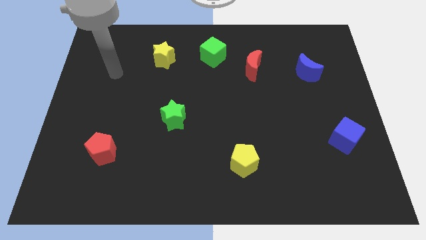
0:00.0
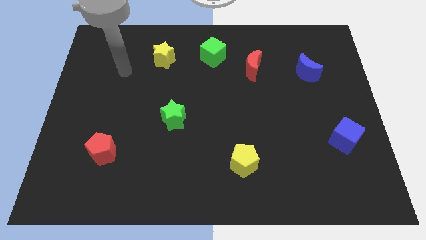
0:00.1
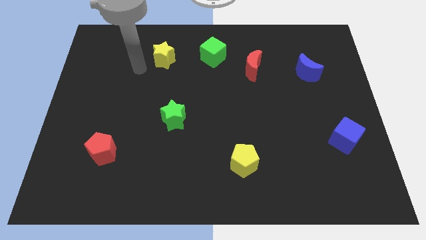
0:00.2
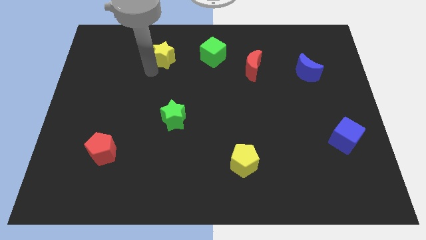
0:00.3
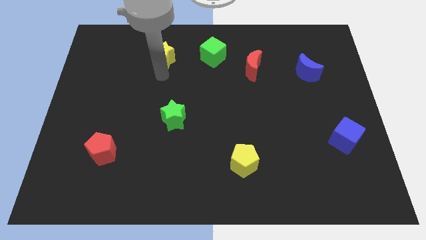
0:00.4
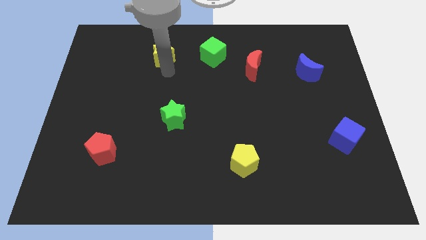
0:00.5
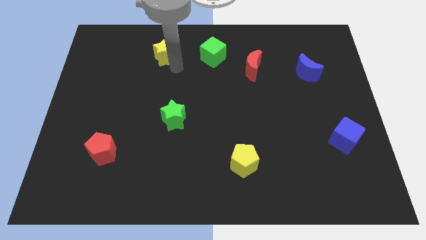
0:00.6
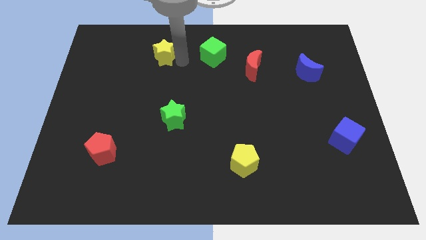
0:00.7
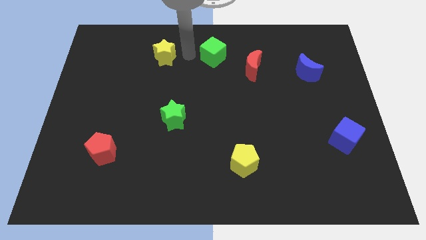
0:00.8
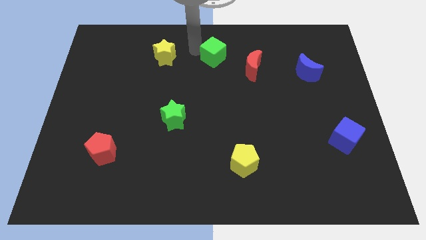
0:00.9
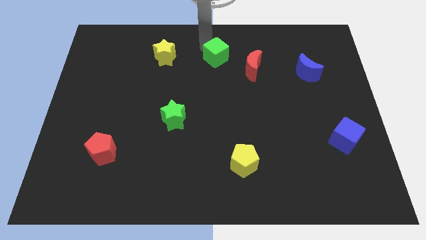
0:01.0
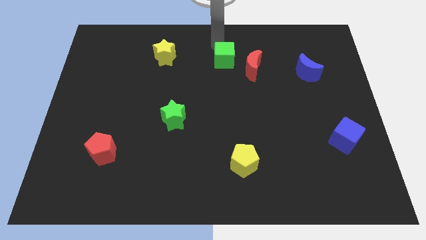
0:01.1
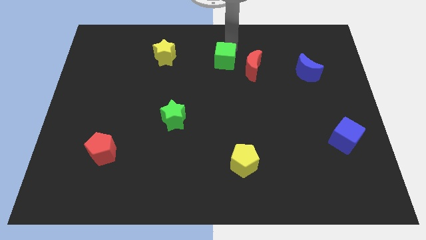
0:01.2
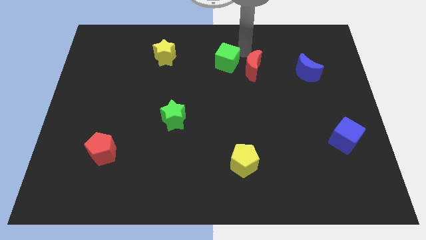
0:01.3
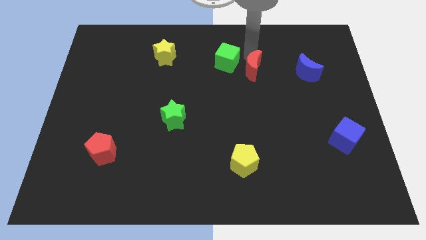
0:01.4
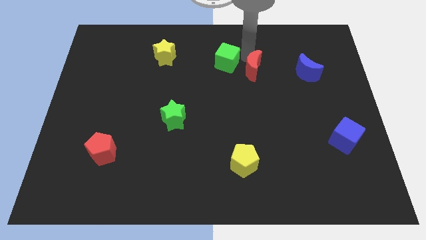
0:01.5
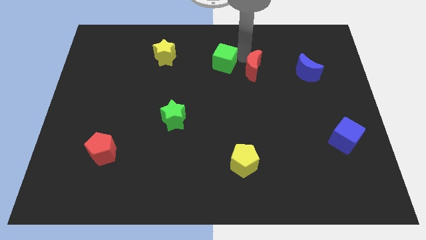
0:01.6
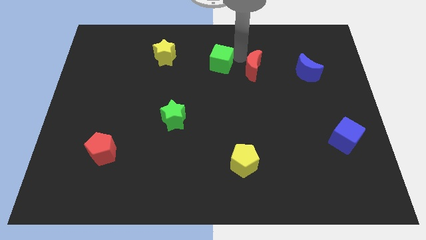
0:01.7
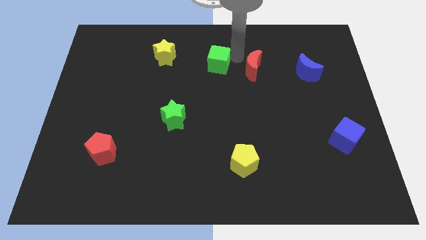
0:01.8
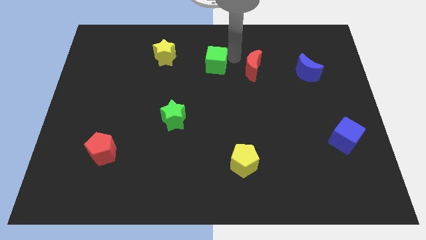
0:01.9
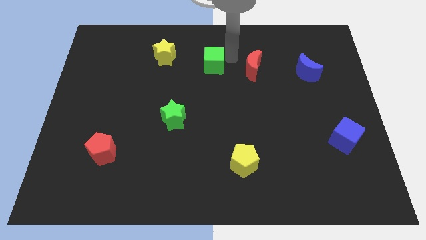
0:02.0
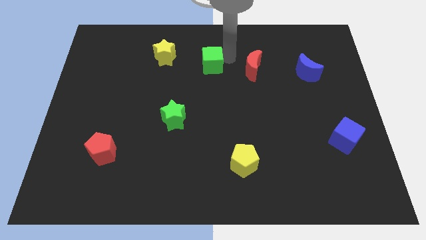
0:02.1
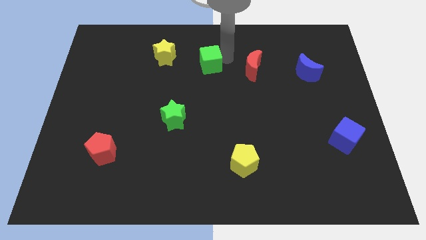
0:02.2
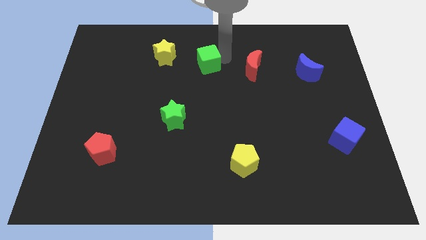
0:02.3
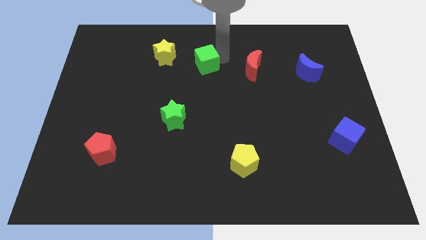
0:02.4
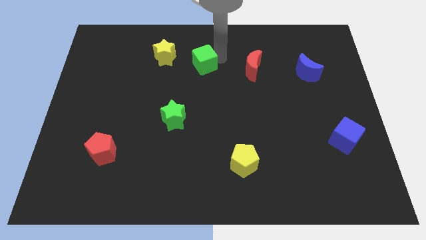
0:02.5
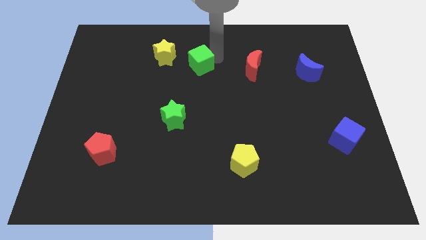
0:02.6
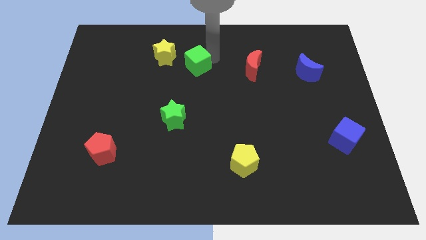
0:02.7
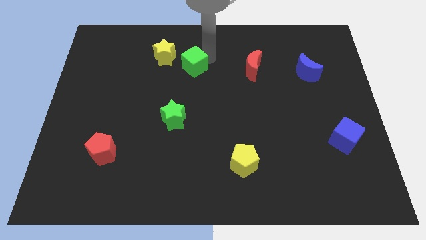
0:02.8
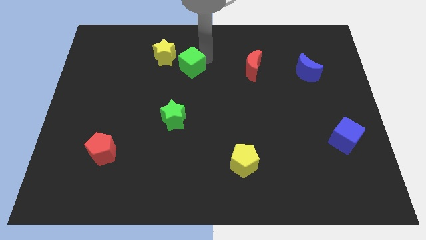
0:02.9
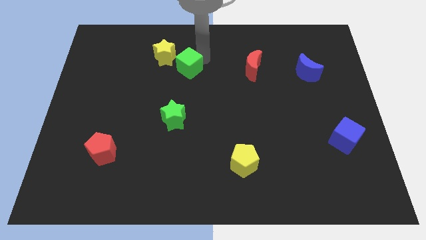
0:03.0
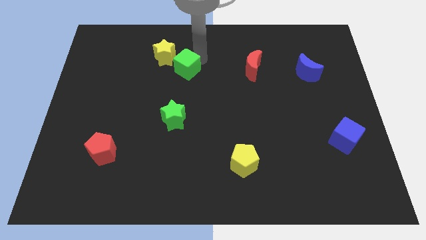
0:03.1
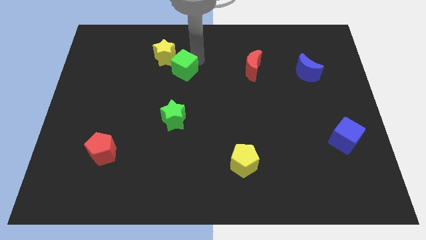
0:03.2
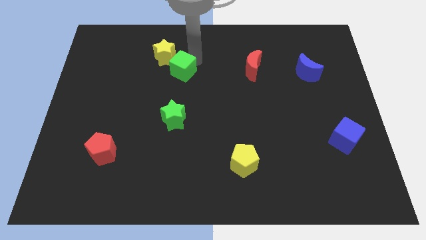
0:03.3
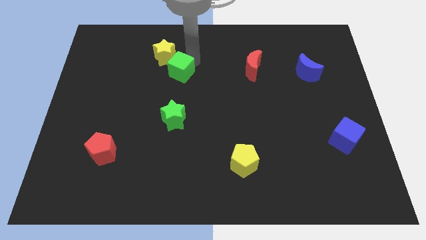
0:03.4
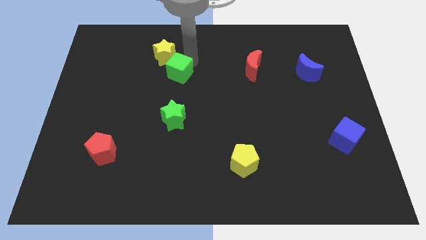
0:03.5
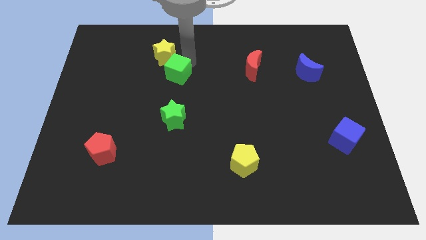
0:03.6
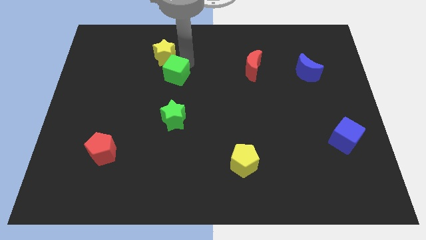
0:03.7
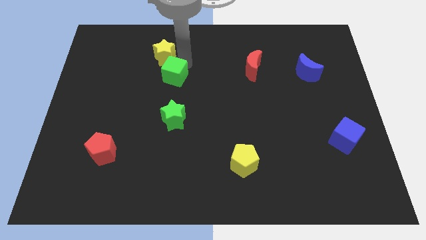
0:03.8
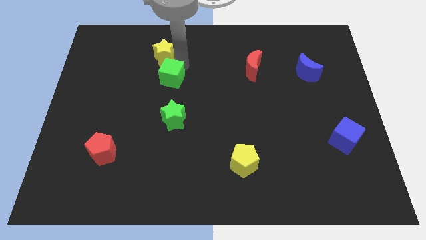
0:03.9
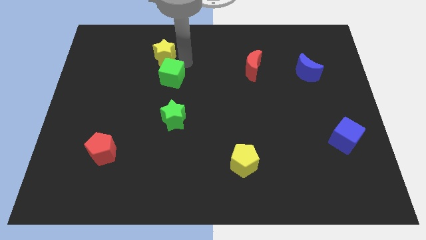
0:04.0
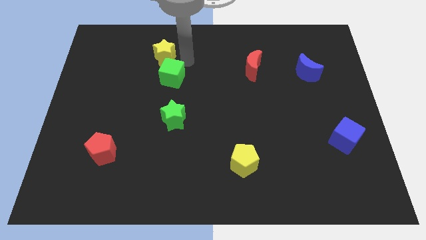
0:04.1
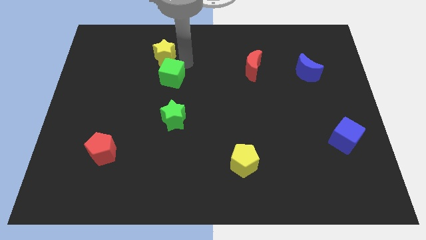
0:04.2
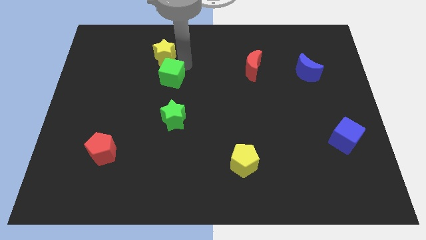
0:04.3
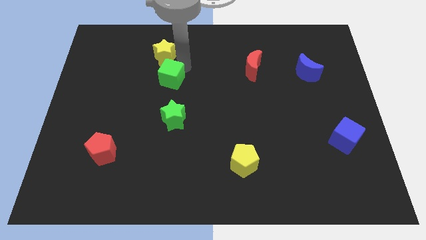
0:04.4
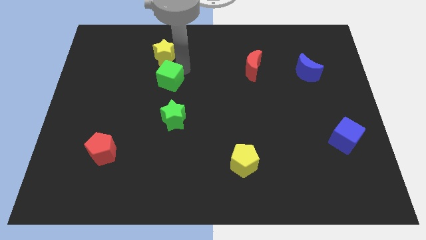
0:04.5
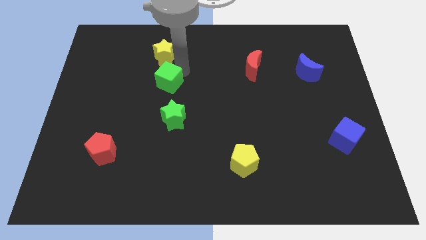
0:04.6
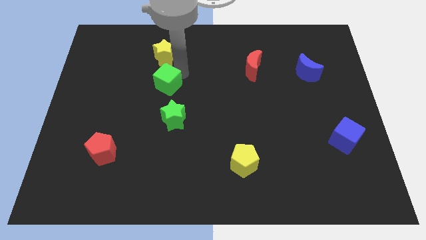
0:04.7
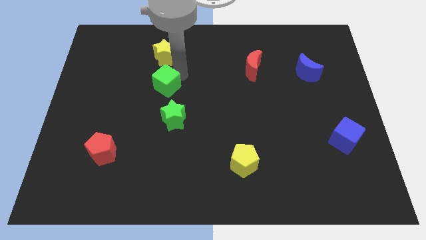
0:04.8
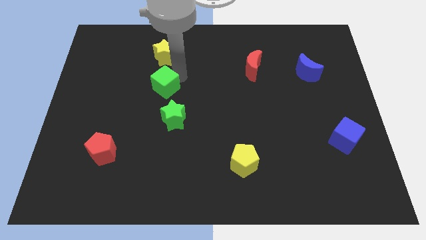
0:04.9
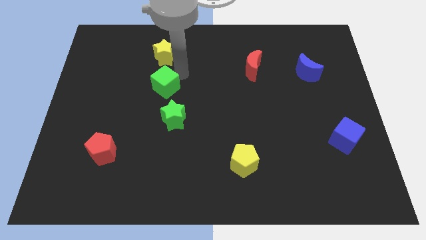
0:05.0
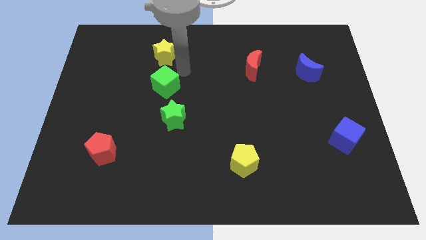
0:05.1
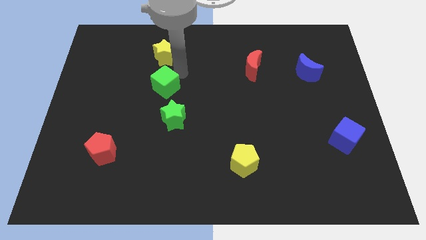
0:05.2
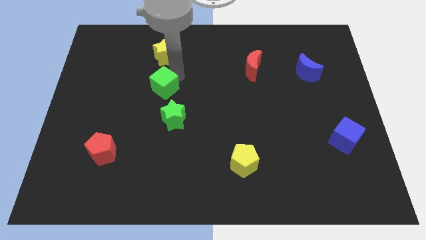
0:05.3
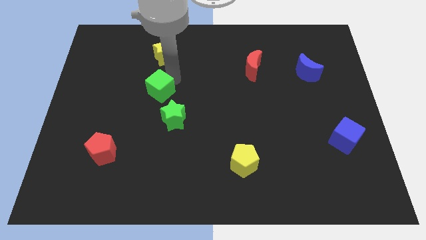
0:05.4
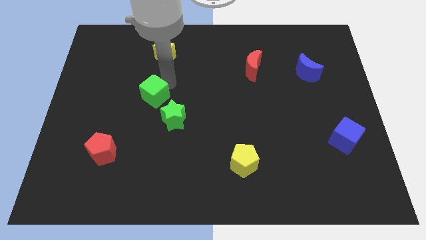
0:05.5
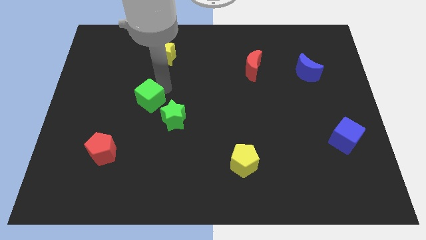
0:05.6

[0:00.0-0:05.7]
slide the green cube down and then to the left

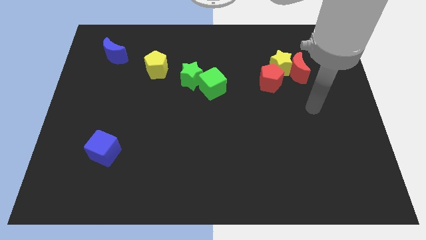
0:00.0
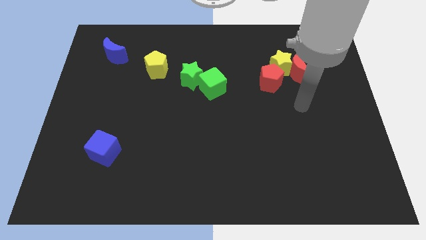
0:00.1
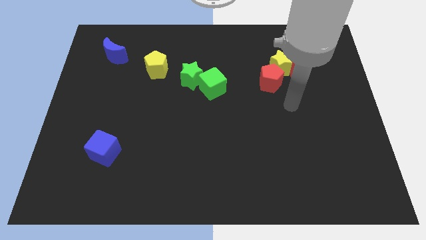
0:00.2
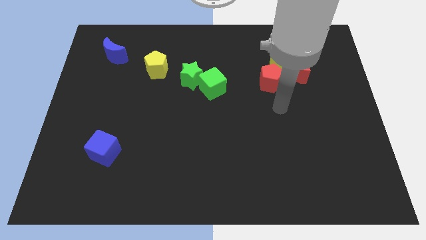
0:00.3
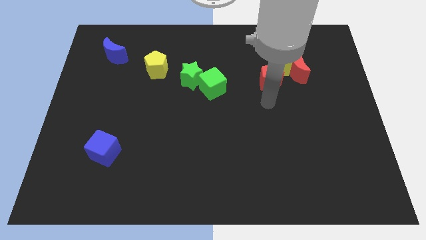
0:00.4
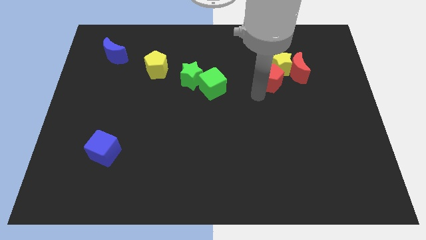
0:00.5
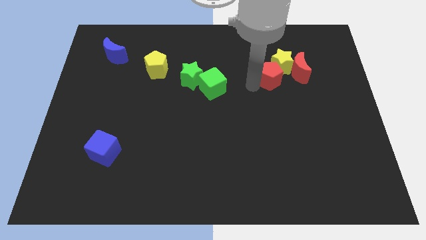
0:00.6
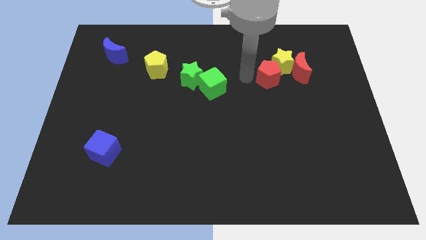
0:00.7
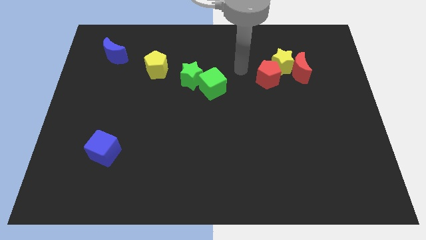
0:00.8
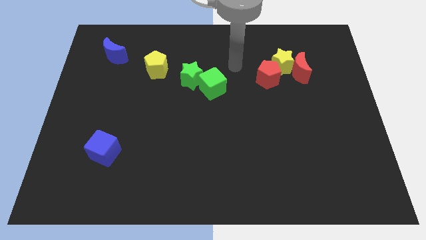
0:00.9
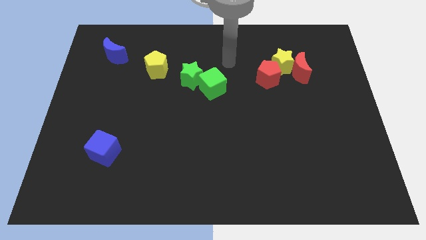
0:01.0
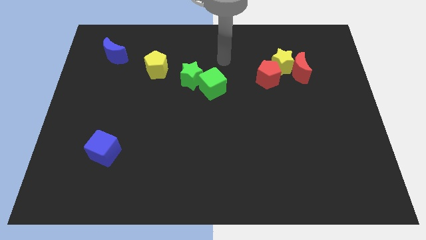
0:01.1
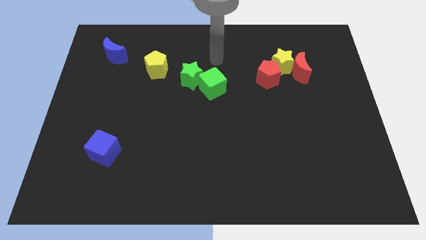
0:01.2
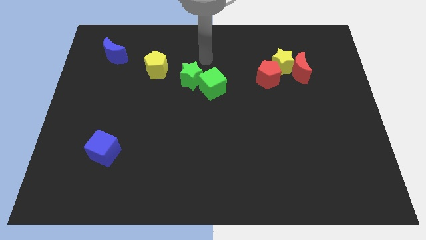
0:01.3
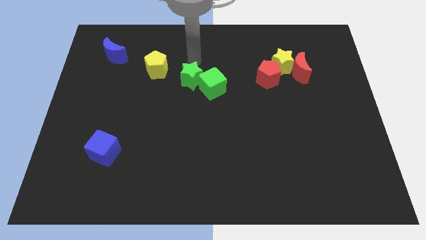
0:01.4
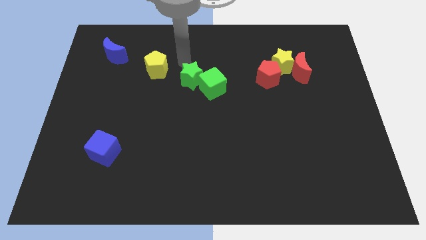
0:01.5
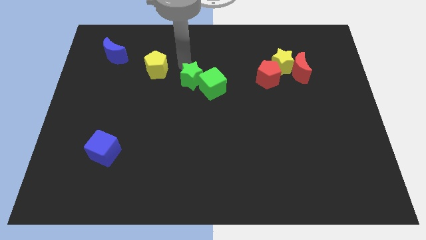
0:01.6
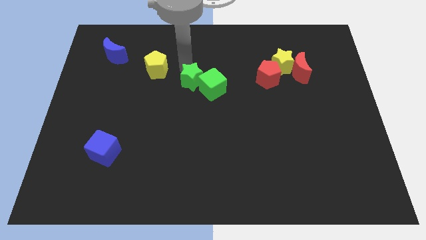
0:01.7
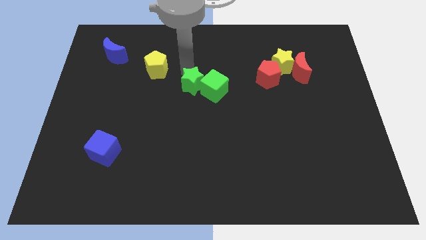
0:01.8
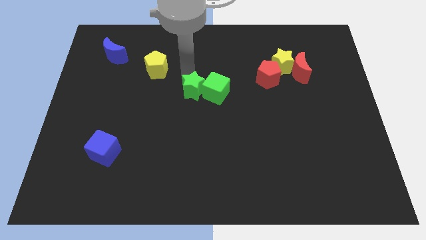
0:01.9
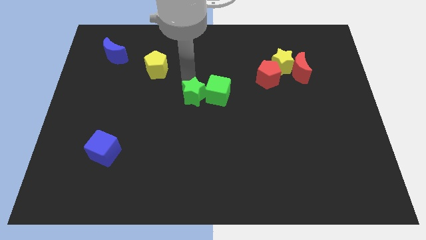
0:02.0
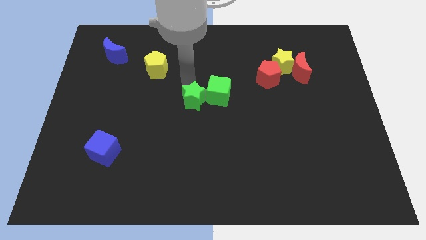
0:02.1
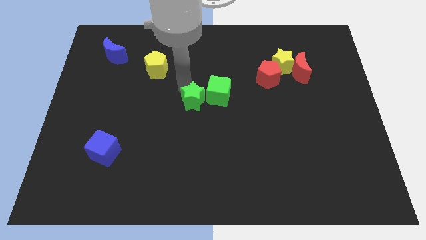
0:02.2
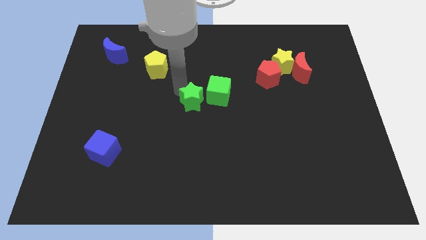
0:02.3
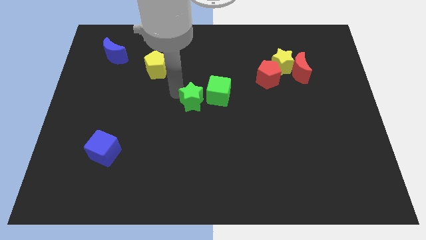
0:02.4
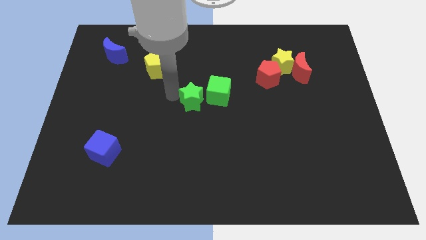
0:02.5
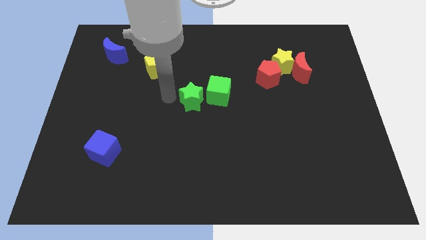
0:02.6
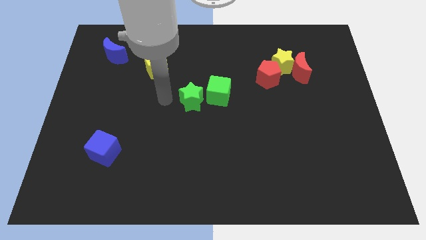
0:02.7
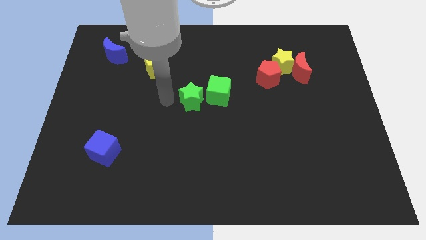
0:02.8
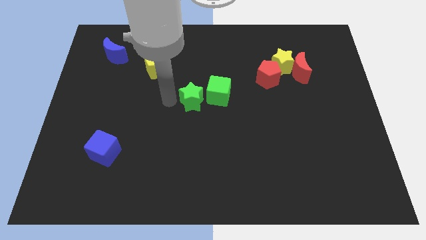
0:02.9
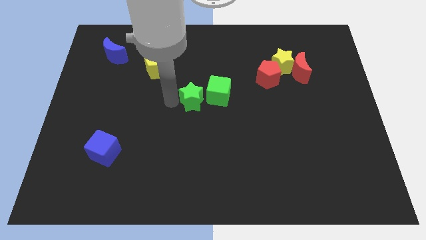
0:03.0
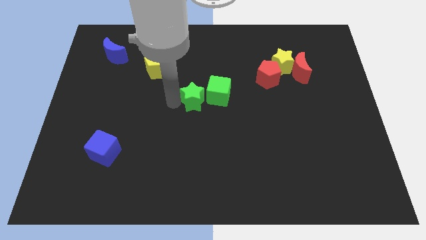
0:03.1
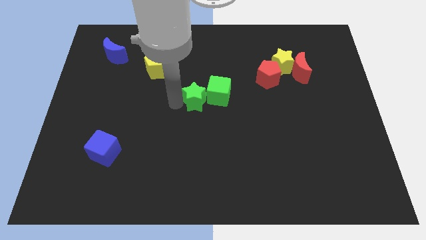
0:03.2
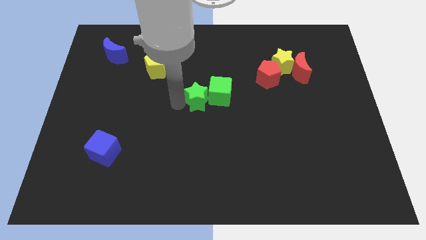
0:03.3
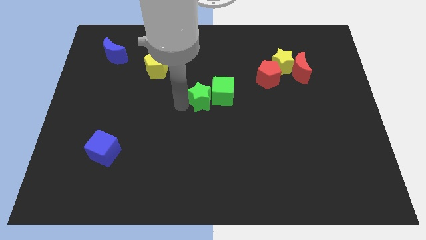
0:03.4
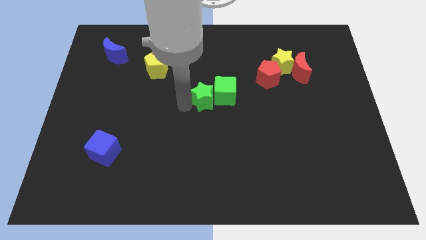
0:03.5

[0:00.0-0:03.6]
push the green star slightly diagonally down and to the right
